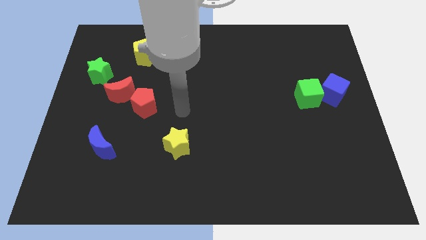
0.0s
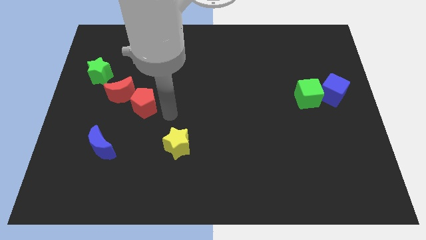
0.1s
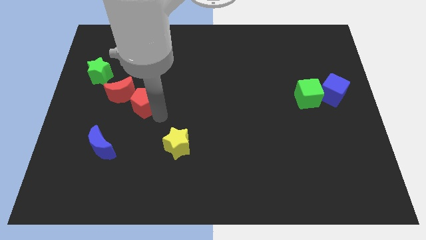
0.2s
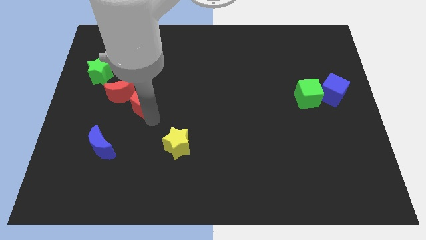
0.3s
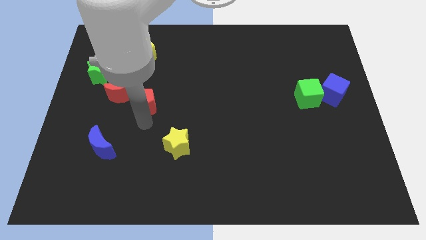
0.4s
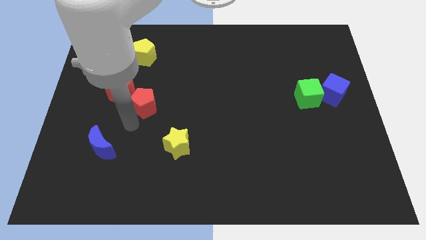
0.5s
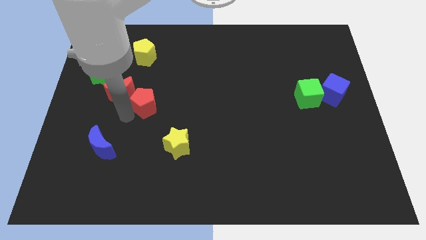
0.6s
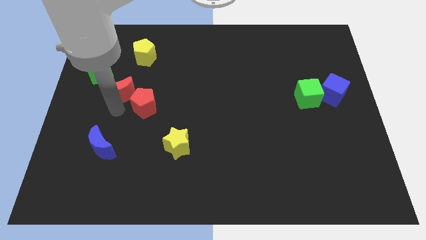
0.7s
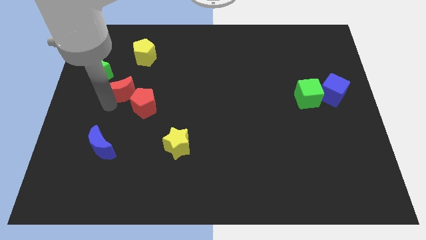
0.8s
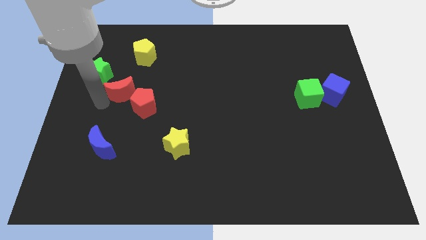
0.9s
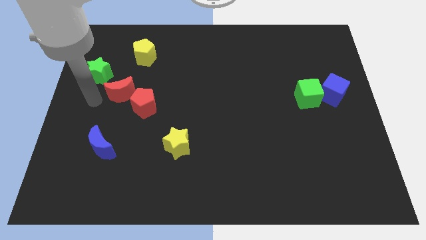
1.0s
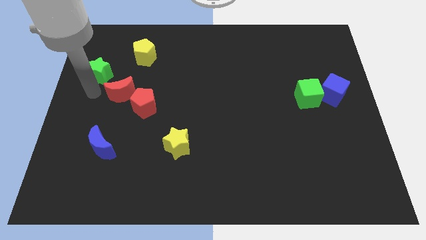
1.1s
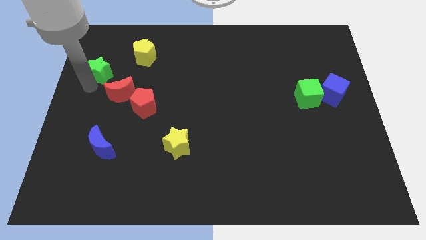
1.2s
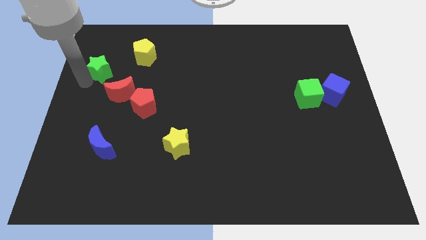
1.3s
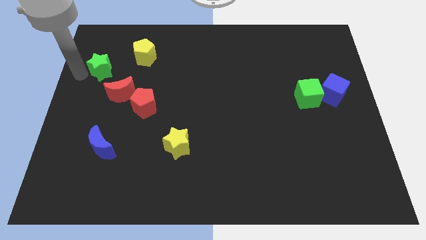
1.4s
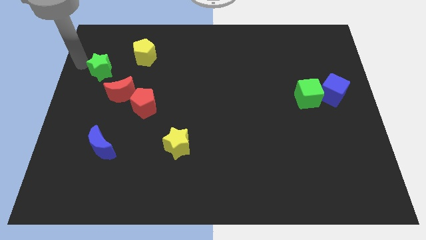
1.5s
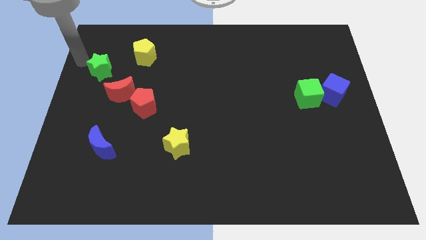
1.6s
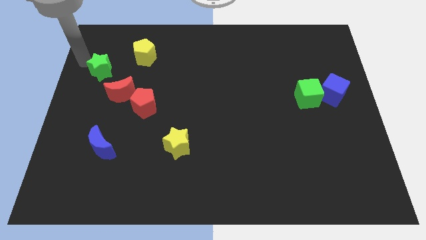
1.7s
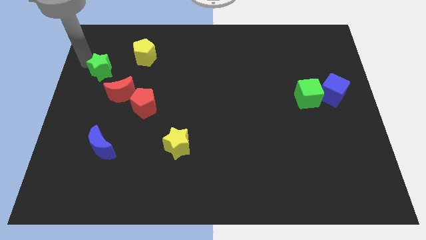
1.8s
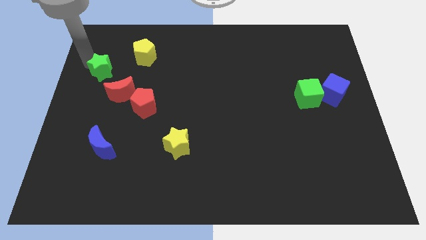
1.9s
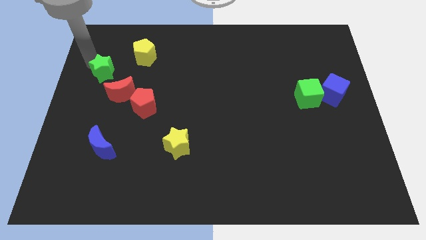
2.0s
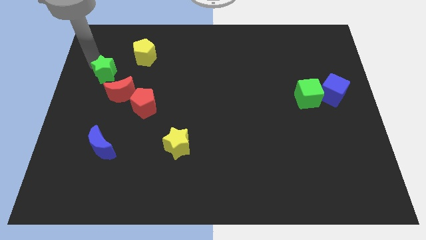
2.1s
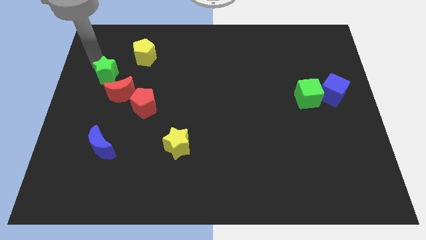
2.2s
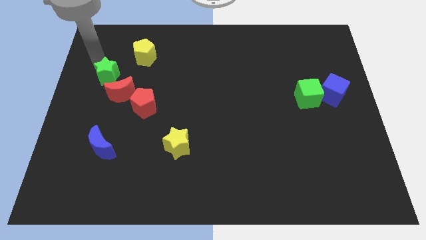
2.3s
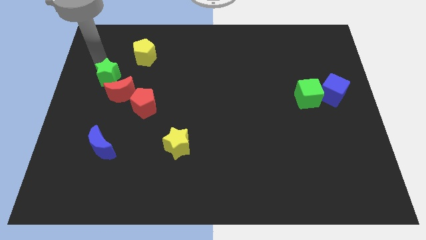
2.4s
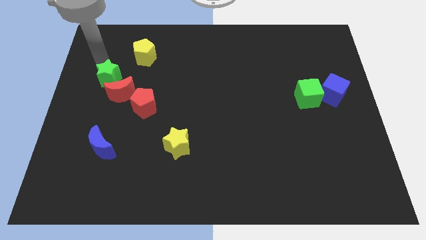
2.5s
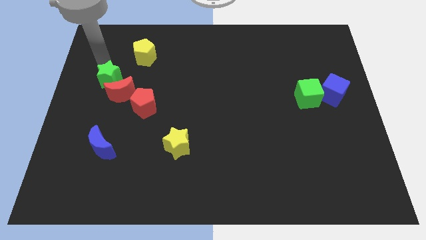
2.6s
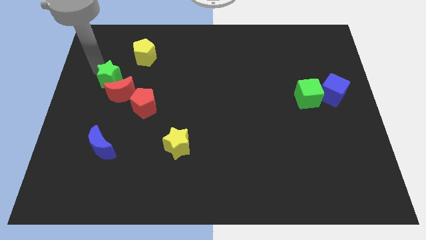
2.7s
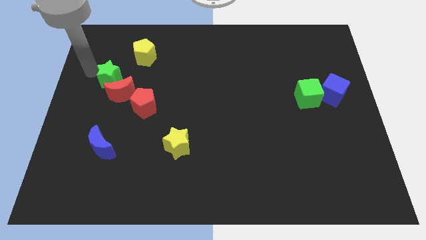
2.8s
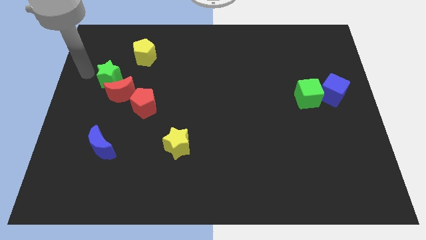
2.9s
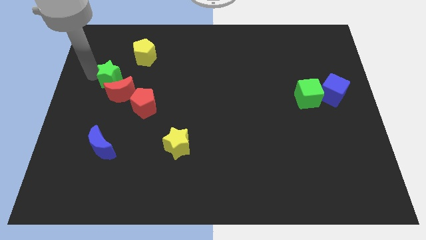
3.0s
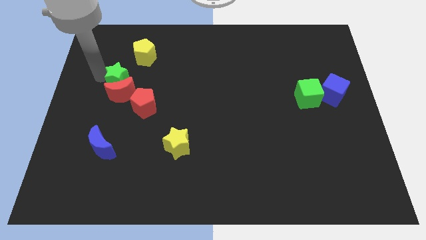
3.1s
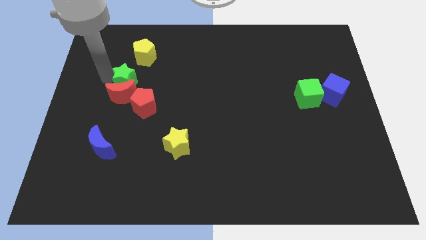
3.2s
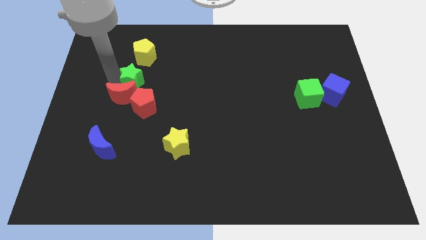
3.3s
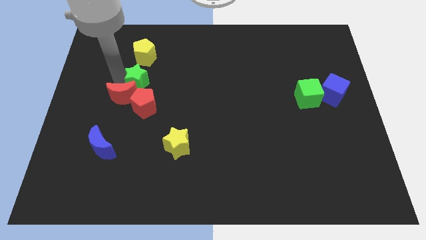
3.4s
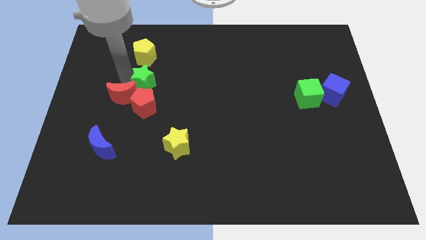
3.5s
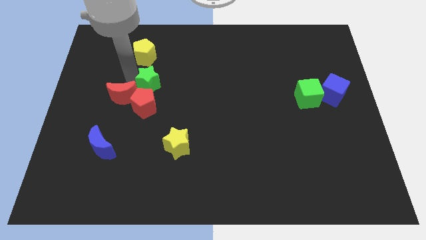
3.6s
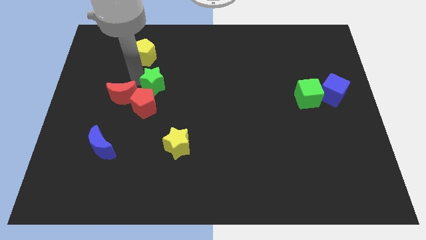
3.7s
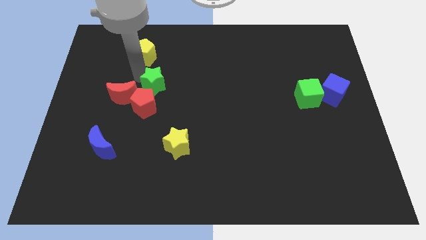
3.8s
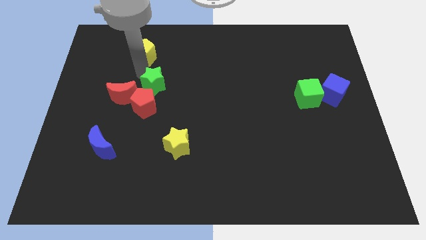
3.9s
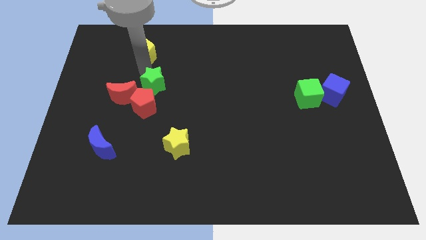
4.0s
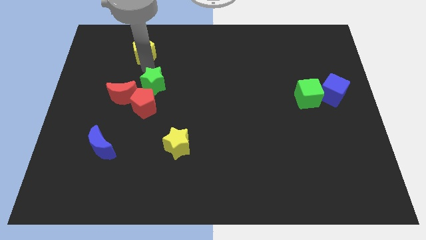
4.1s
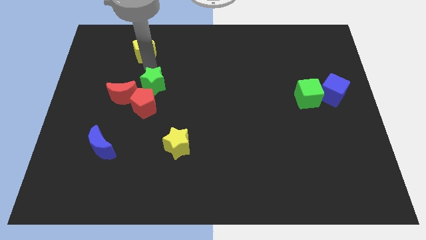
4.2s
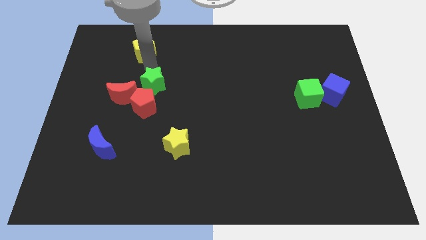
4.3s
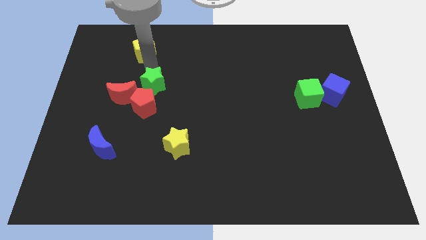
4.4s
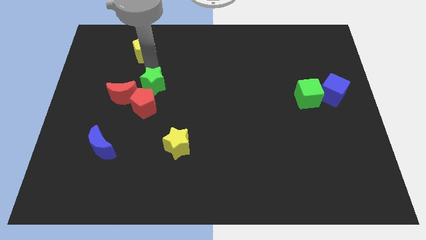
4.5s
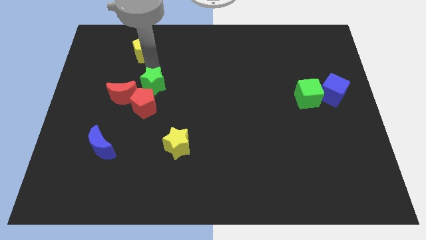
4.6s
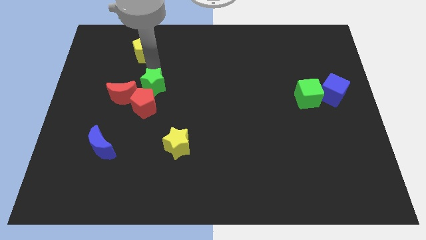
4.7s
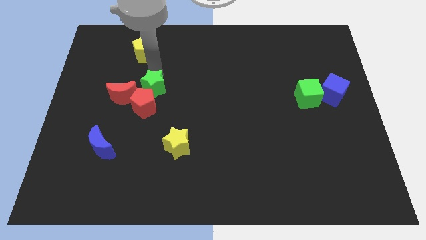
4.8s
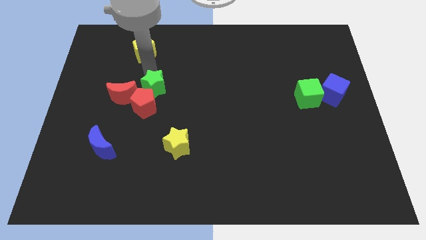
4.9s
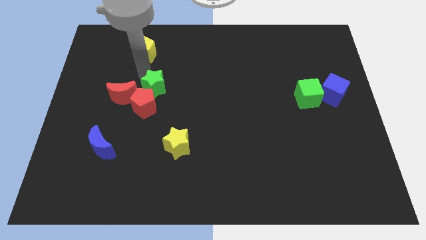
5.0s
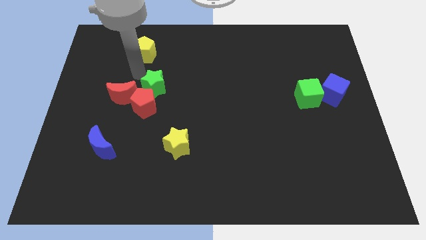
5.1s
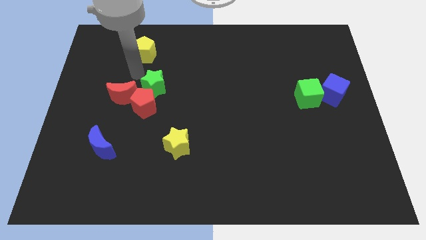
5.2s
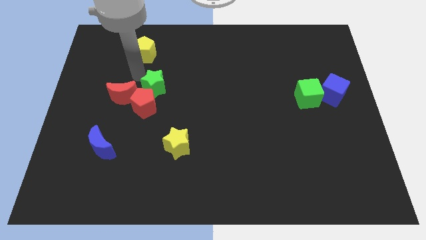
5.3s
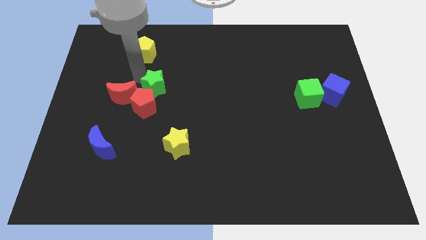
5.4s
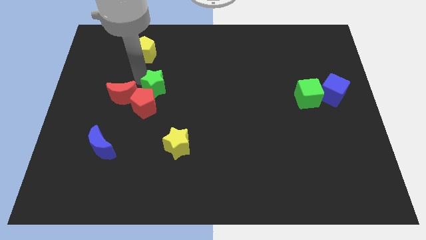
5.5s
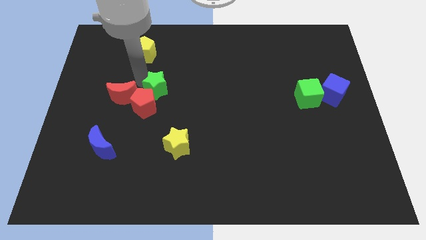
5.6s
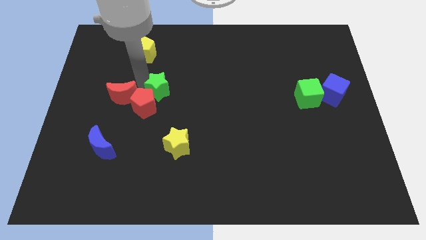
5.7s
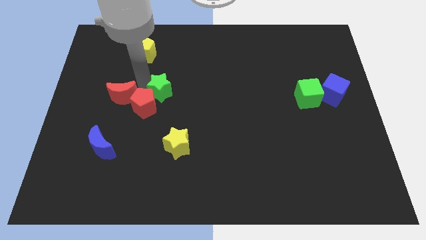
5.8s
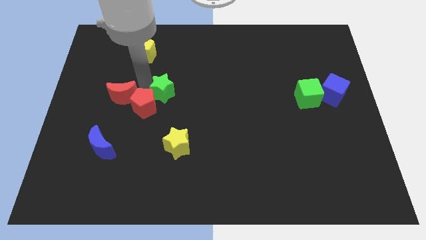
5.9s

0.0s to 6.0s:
push the green star just right of the red pentagon

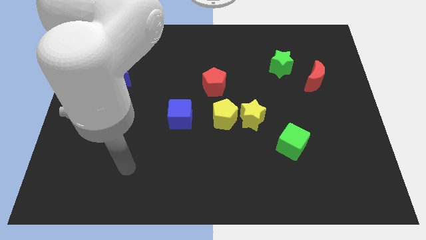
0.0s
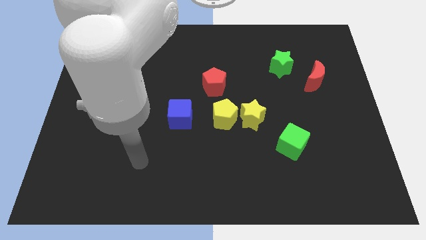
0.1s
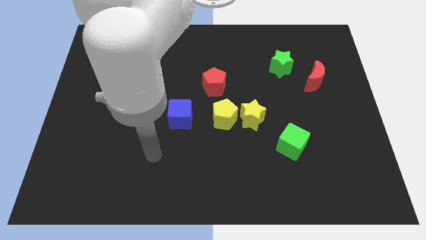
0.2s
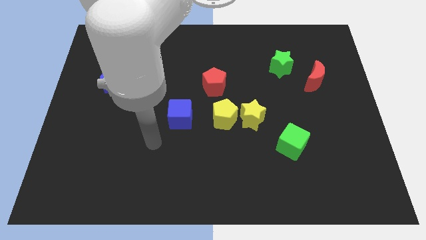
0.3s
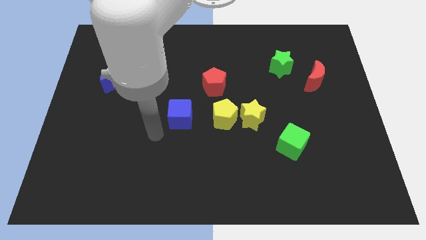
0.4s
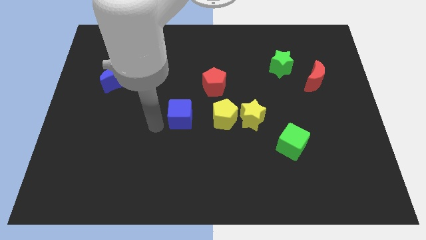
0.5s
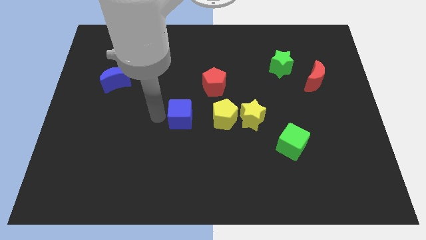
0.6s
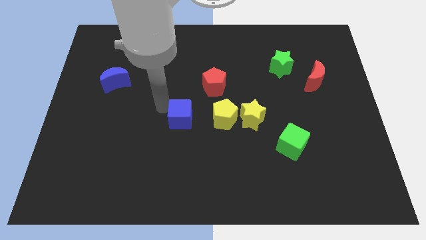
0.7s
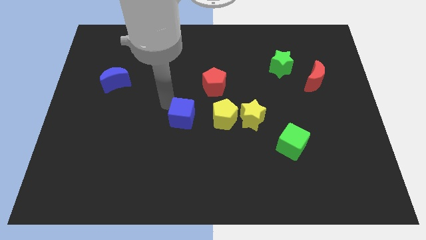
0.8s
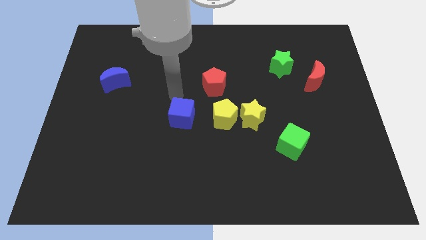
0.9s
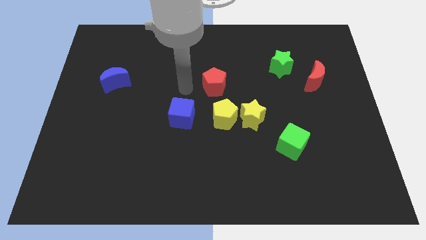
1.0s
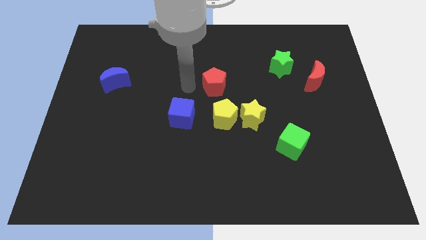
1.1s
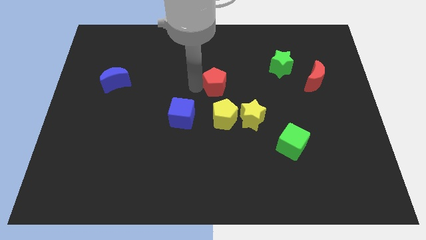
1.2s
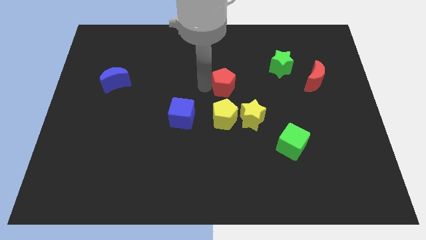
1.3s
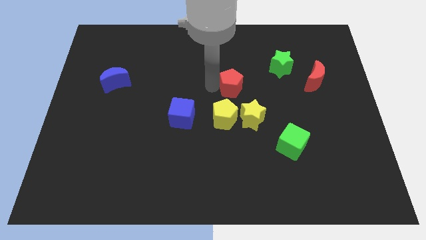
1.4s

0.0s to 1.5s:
put the red pentagon above the yellow star
